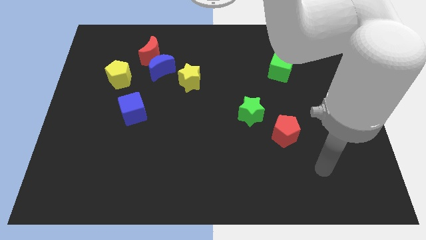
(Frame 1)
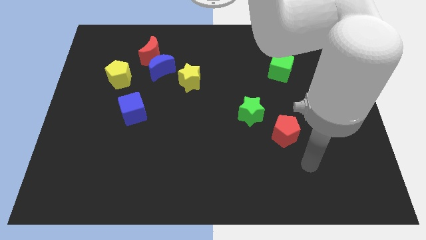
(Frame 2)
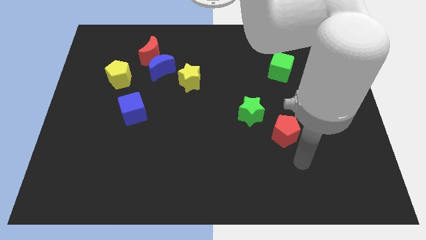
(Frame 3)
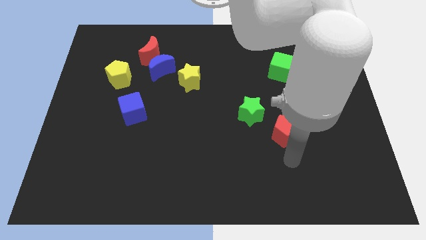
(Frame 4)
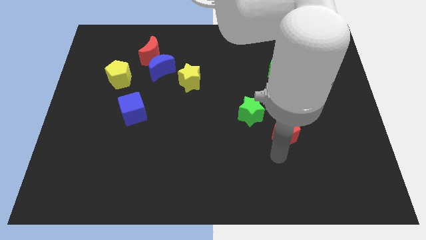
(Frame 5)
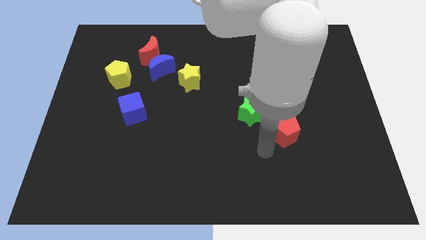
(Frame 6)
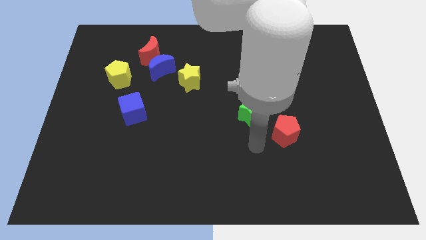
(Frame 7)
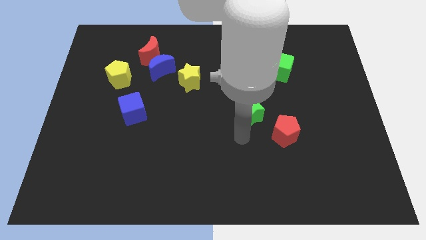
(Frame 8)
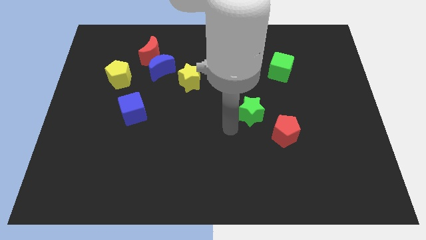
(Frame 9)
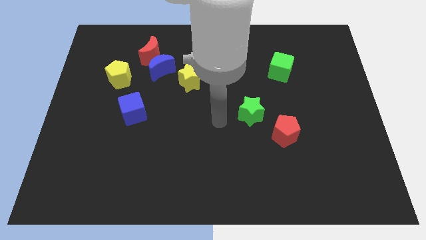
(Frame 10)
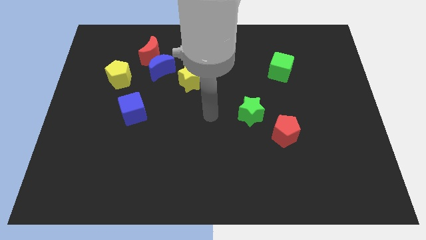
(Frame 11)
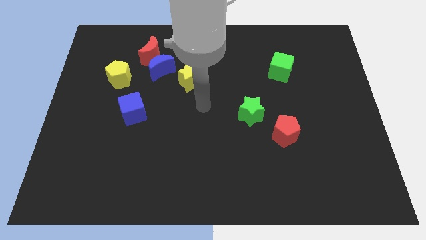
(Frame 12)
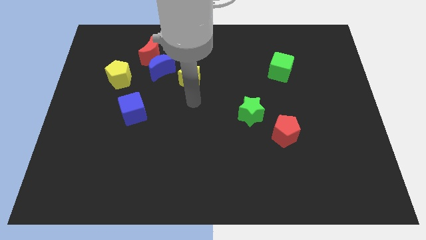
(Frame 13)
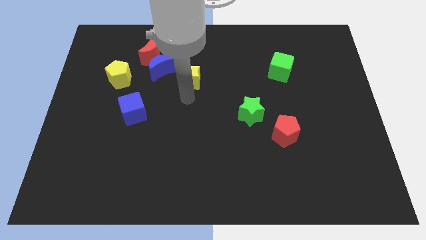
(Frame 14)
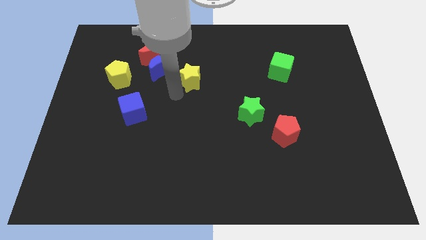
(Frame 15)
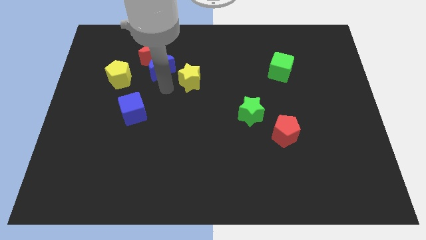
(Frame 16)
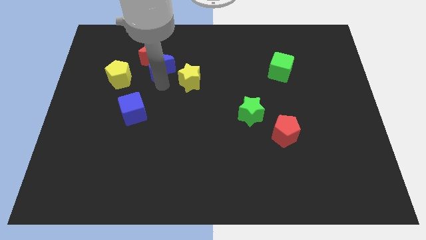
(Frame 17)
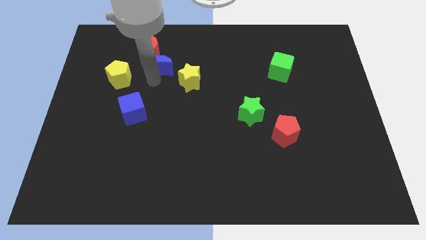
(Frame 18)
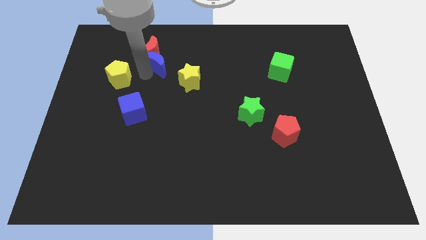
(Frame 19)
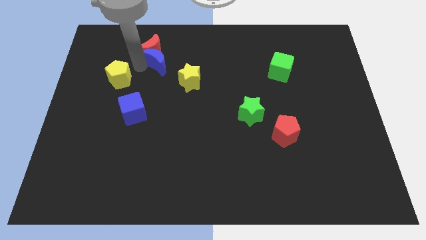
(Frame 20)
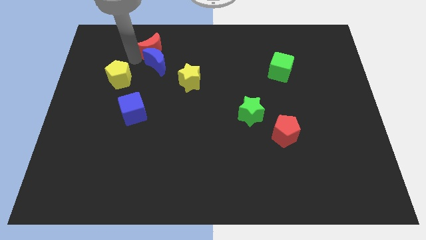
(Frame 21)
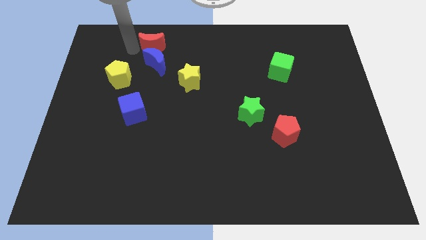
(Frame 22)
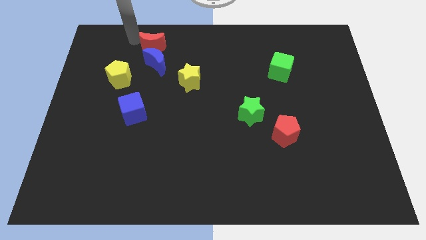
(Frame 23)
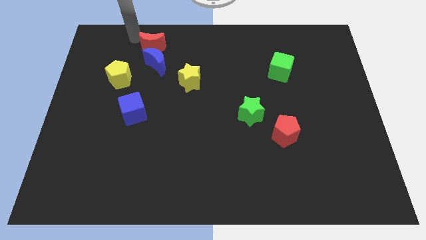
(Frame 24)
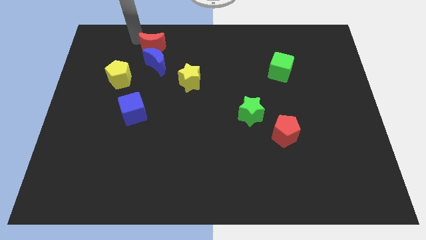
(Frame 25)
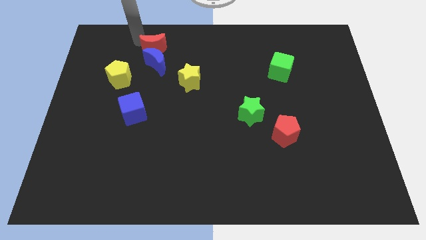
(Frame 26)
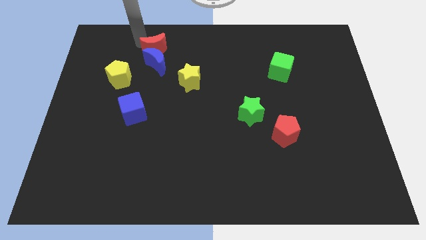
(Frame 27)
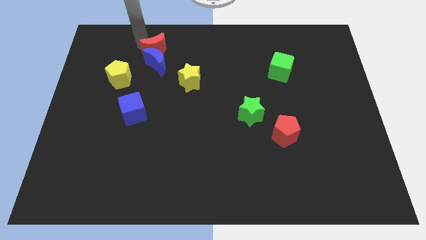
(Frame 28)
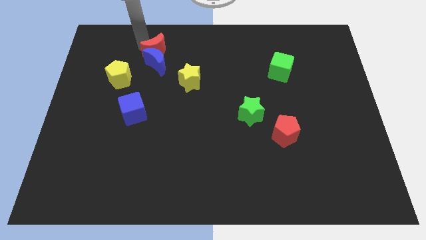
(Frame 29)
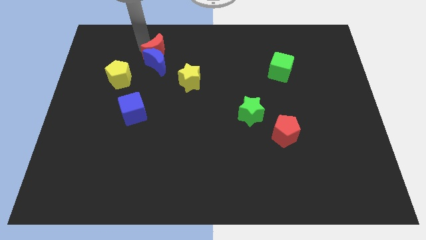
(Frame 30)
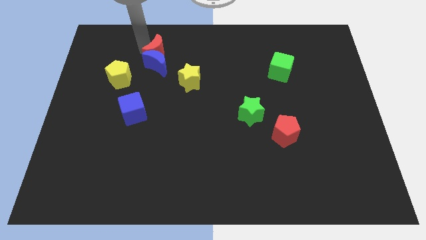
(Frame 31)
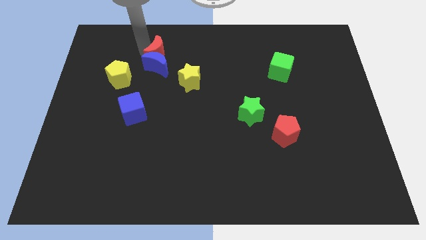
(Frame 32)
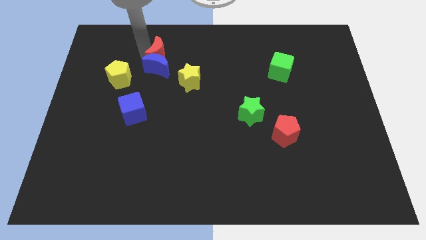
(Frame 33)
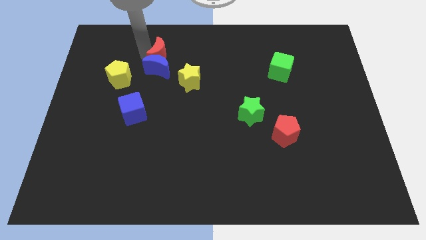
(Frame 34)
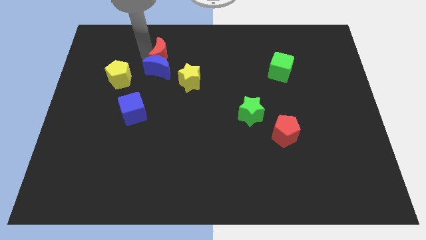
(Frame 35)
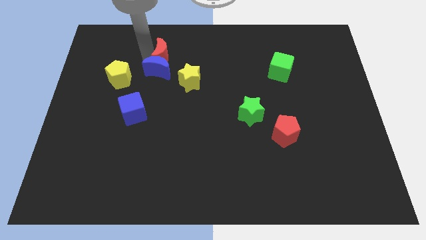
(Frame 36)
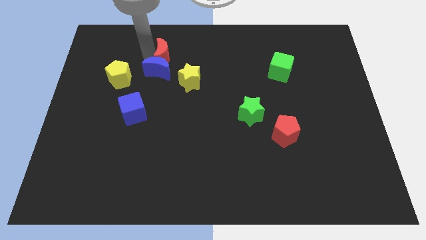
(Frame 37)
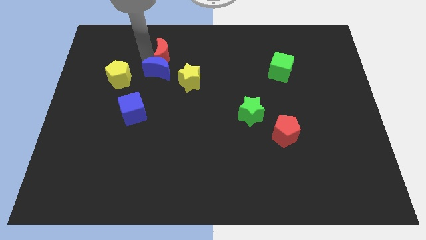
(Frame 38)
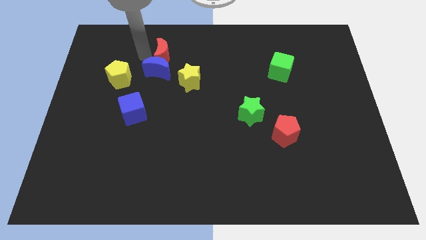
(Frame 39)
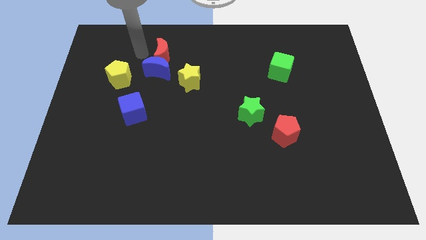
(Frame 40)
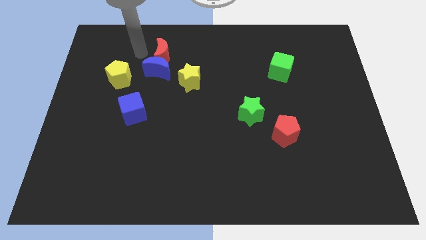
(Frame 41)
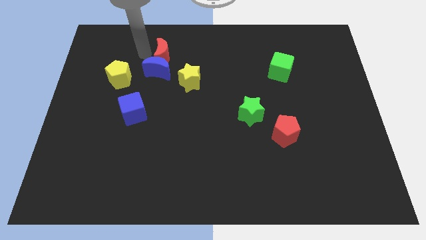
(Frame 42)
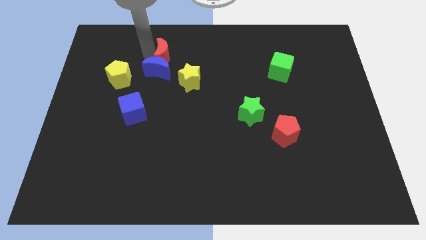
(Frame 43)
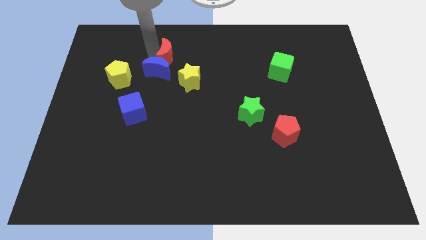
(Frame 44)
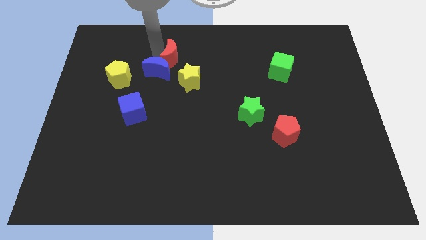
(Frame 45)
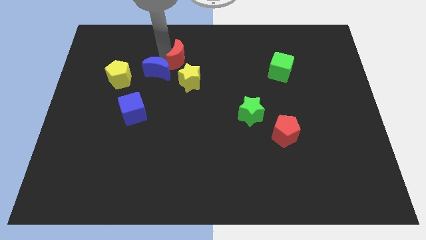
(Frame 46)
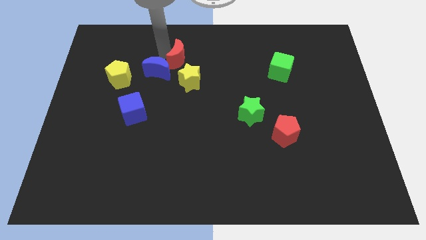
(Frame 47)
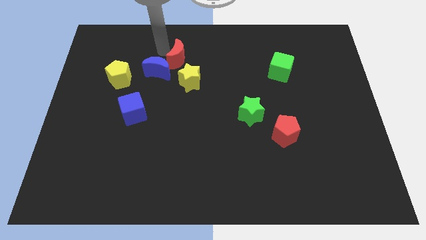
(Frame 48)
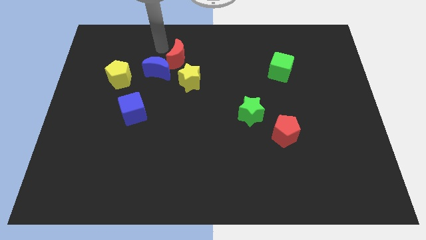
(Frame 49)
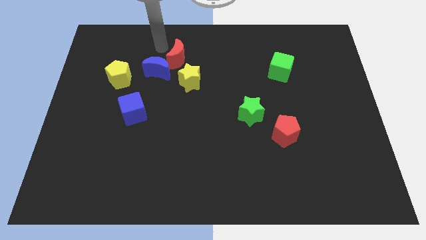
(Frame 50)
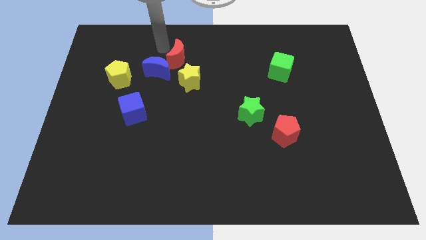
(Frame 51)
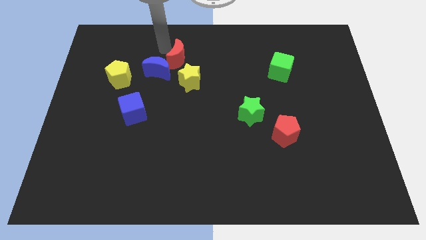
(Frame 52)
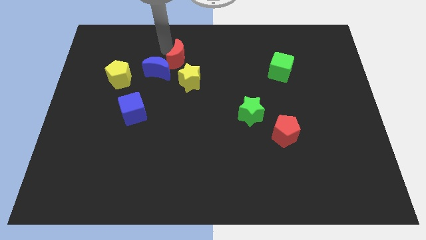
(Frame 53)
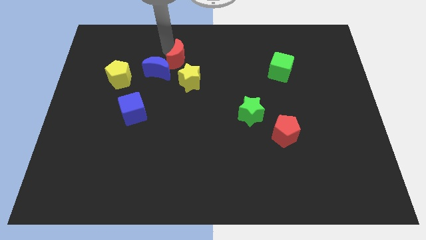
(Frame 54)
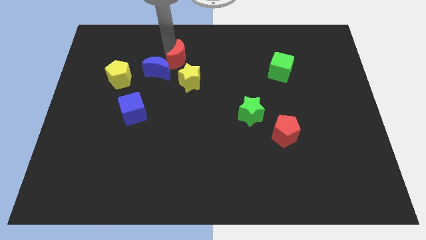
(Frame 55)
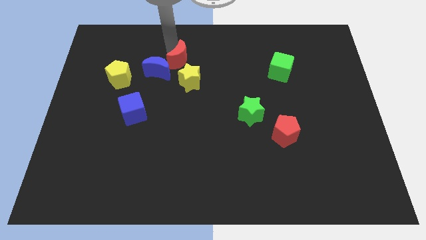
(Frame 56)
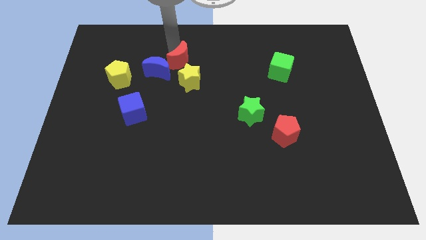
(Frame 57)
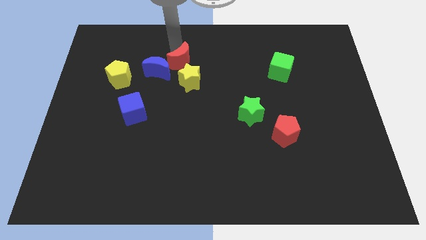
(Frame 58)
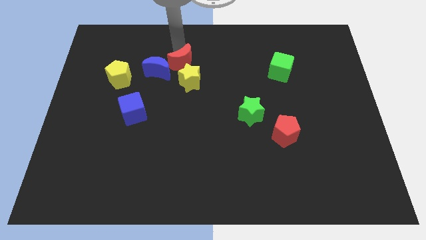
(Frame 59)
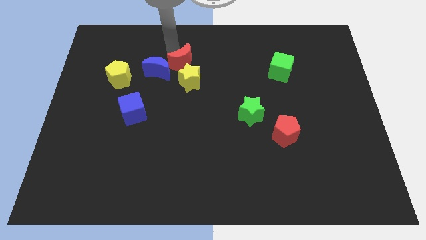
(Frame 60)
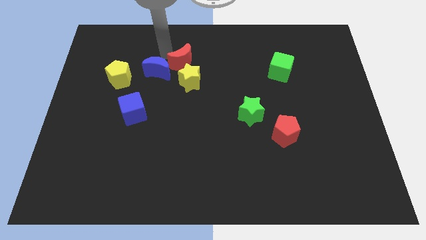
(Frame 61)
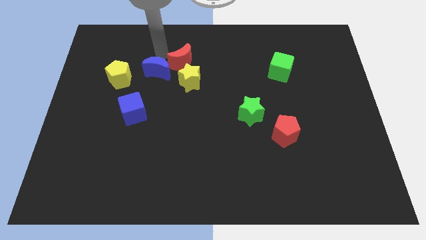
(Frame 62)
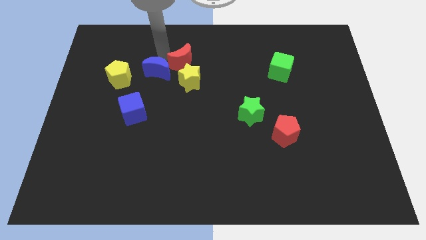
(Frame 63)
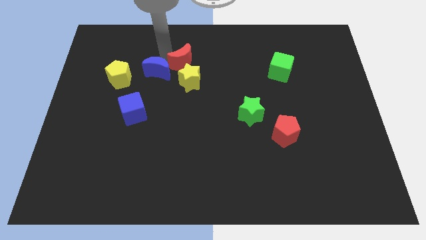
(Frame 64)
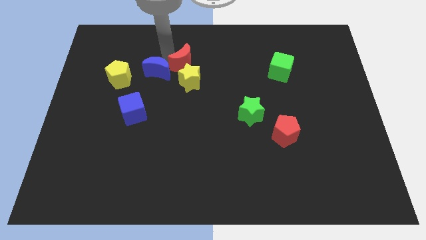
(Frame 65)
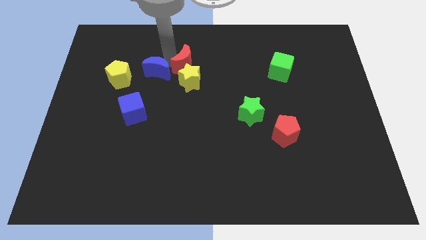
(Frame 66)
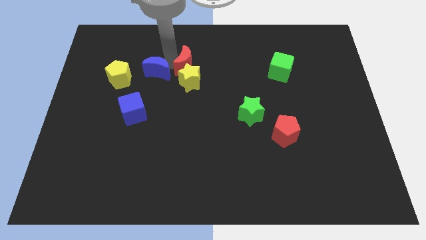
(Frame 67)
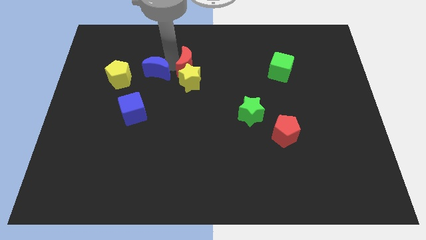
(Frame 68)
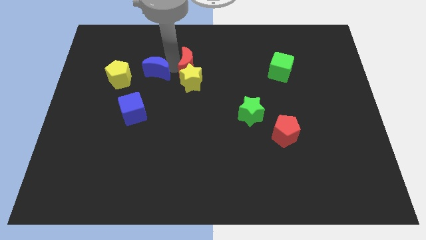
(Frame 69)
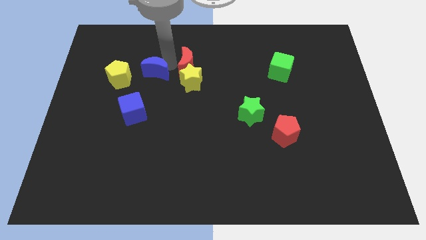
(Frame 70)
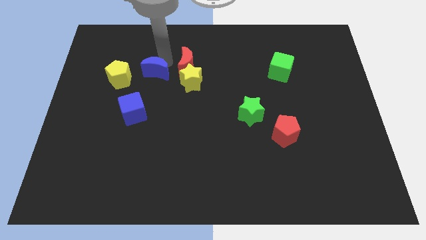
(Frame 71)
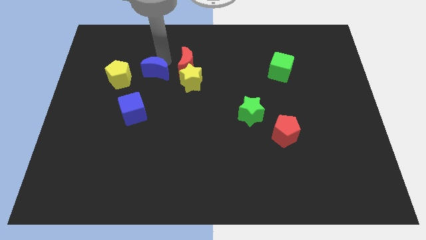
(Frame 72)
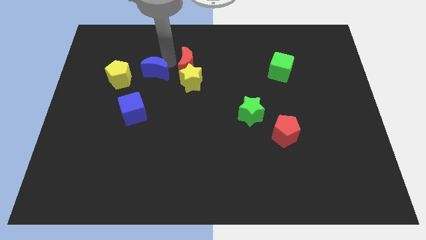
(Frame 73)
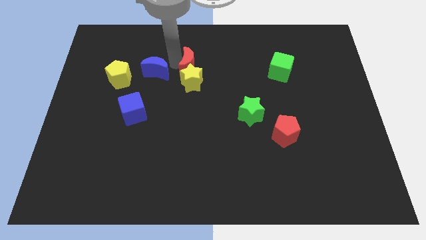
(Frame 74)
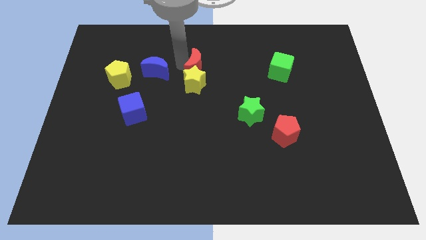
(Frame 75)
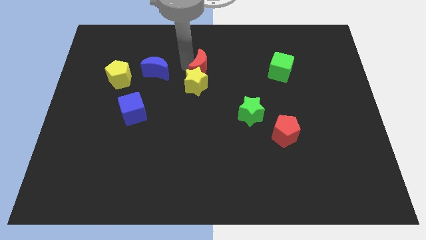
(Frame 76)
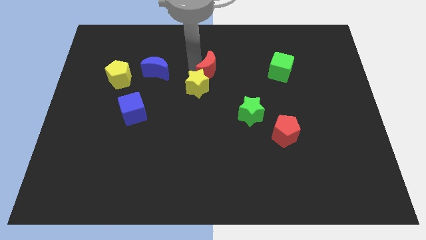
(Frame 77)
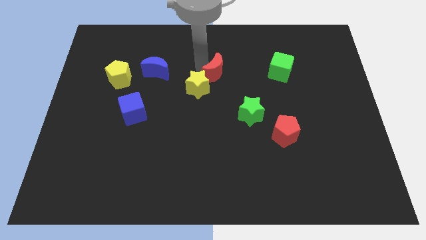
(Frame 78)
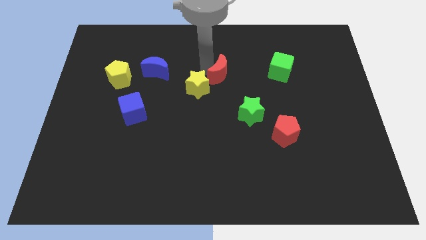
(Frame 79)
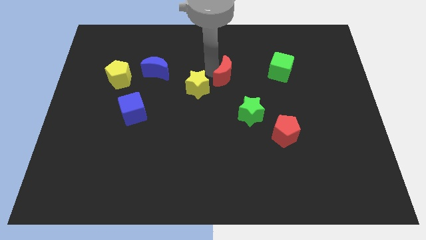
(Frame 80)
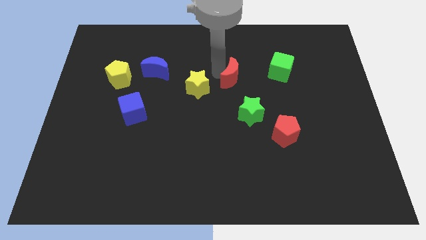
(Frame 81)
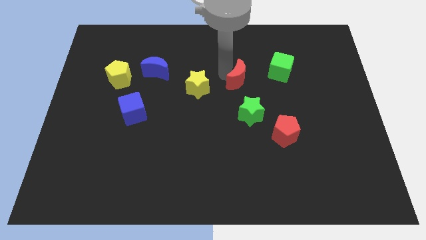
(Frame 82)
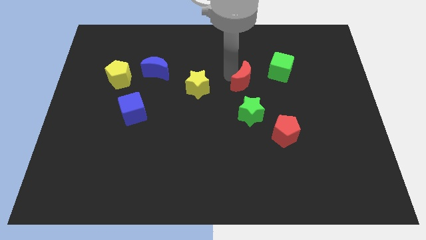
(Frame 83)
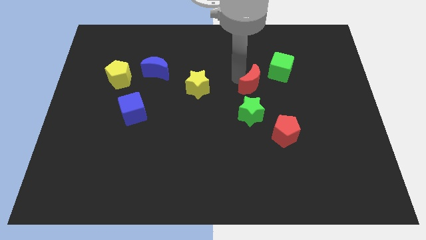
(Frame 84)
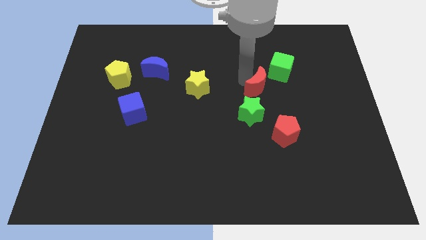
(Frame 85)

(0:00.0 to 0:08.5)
put the red moon to the top right side of the green star
